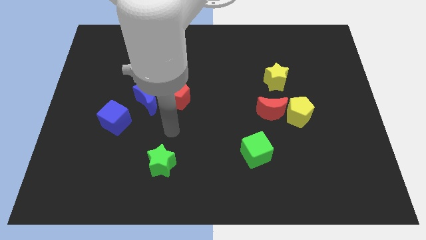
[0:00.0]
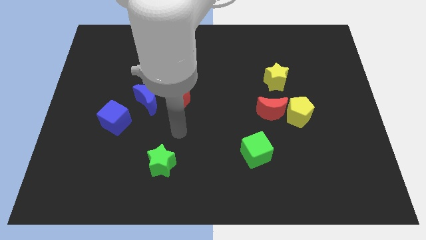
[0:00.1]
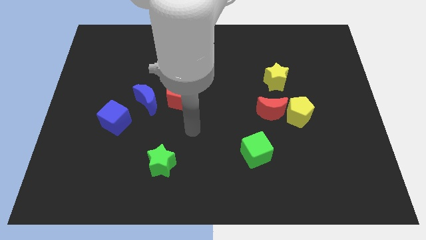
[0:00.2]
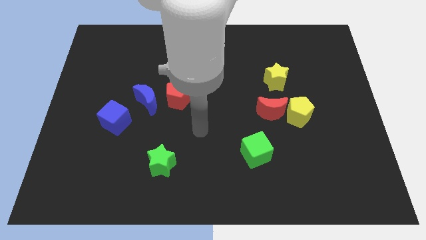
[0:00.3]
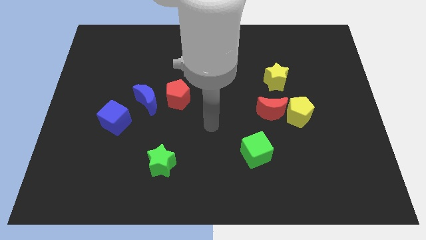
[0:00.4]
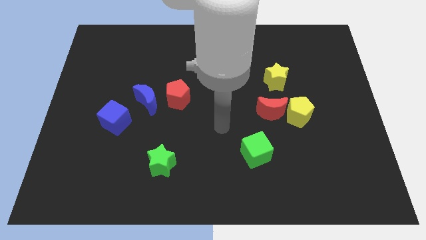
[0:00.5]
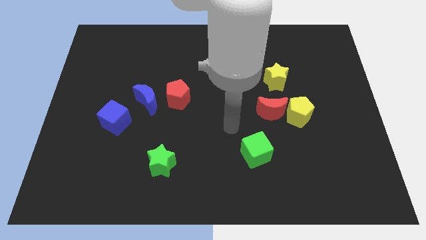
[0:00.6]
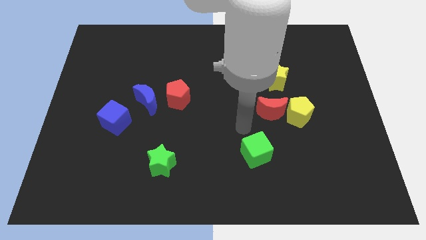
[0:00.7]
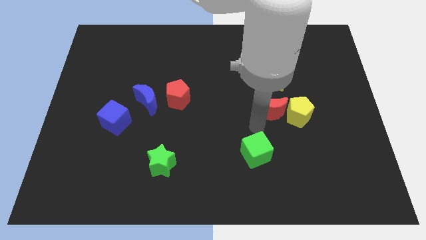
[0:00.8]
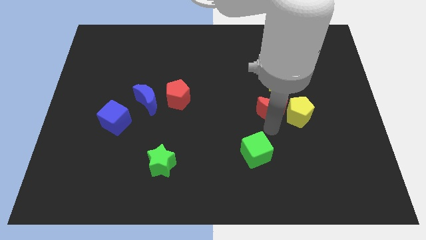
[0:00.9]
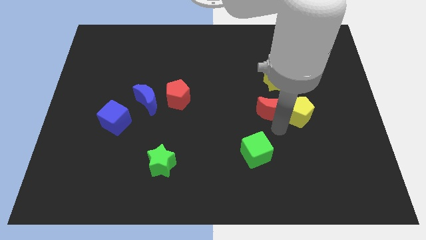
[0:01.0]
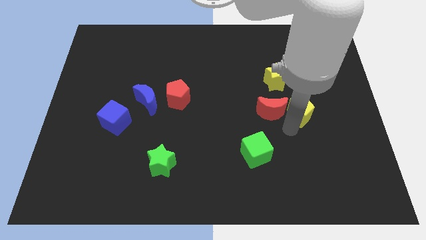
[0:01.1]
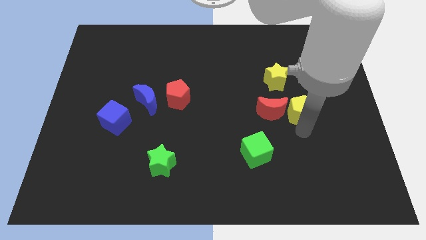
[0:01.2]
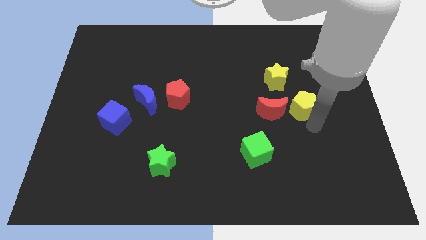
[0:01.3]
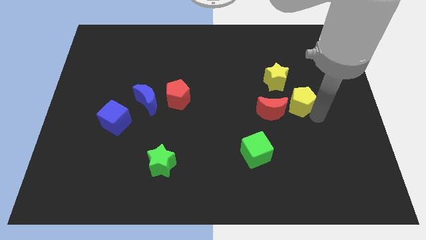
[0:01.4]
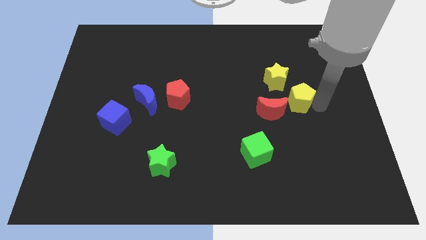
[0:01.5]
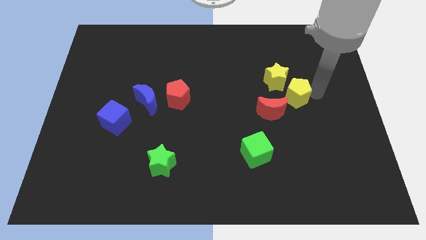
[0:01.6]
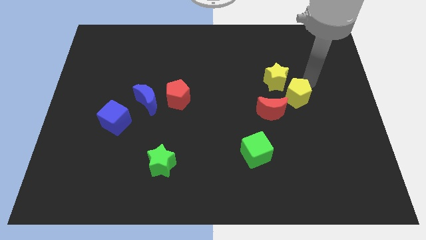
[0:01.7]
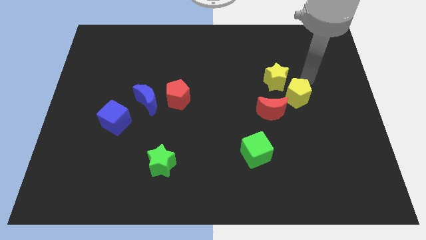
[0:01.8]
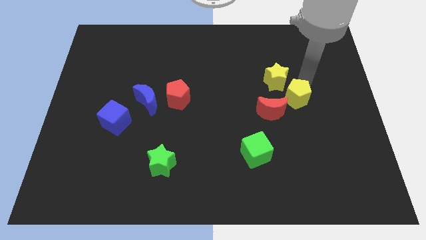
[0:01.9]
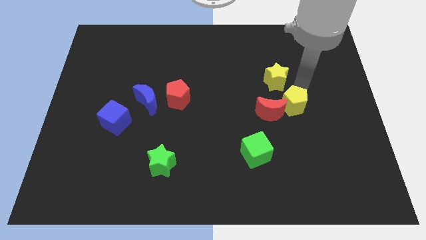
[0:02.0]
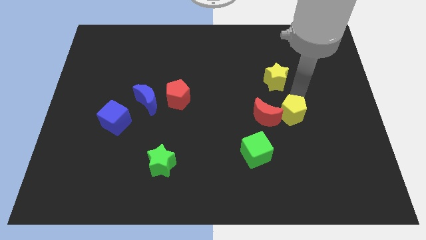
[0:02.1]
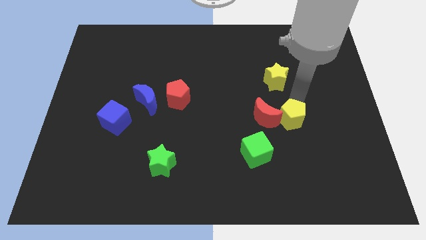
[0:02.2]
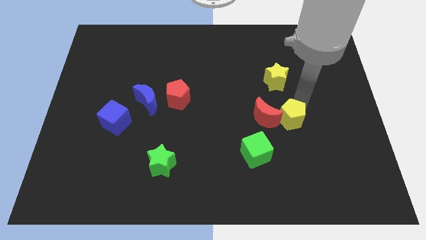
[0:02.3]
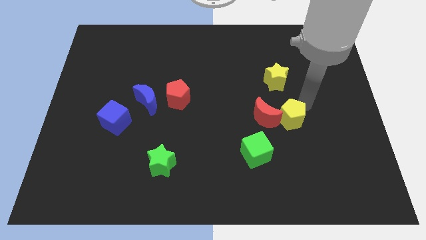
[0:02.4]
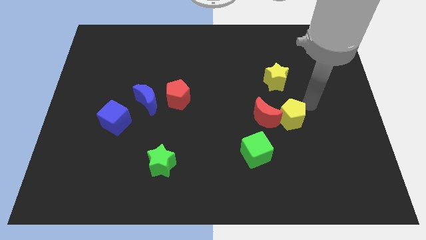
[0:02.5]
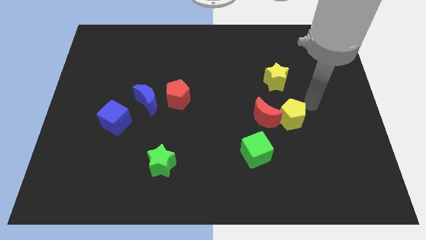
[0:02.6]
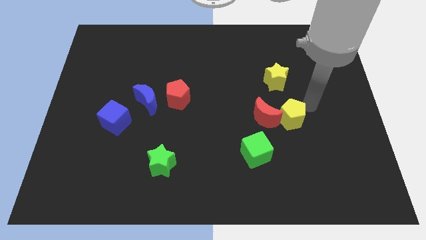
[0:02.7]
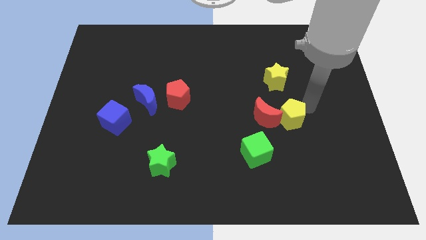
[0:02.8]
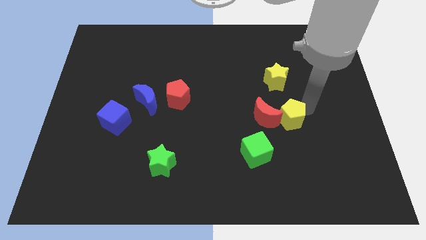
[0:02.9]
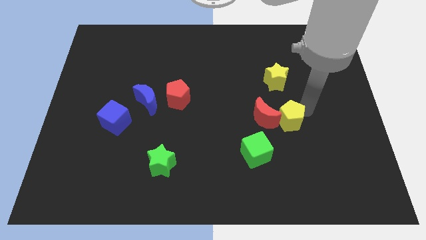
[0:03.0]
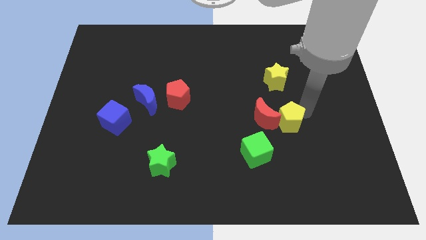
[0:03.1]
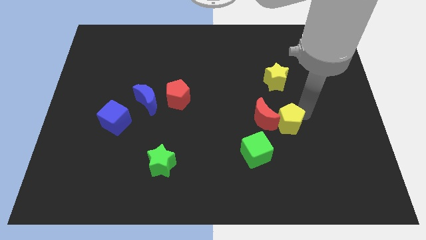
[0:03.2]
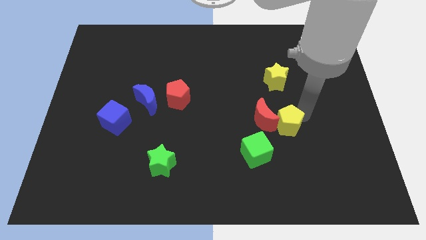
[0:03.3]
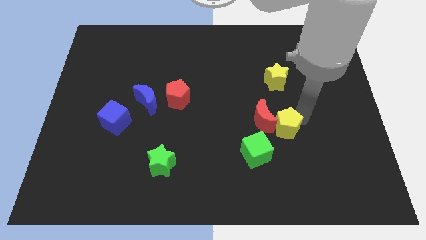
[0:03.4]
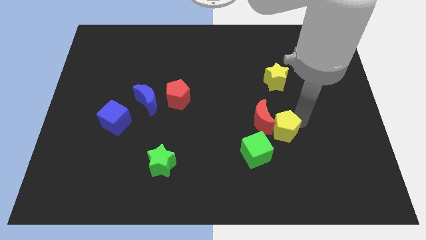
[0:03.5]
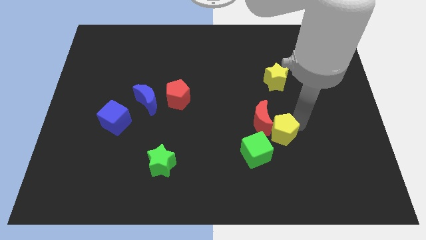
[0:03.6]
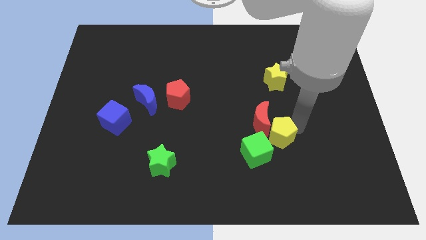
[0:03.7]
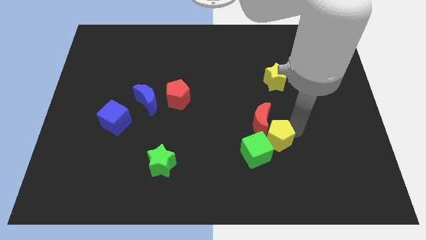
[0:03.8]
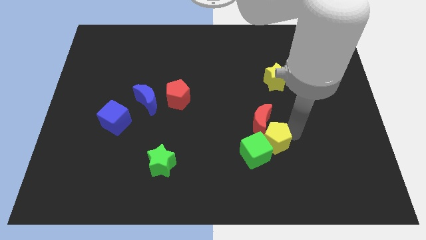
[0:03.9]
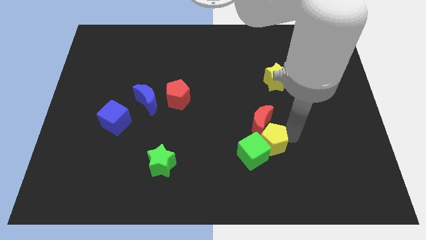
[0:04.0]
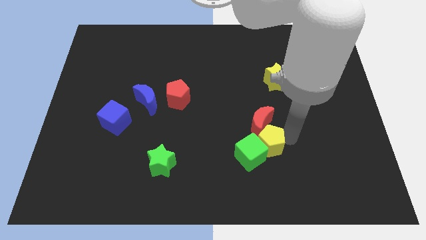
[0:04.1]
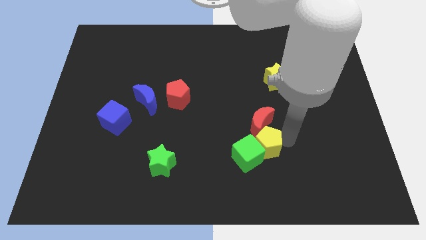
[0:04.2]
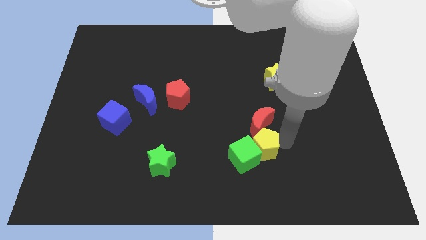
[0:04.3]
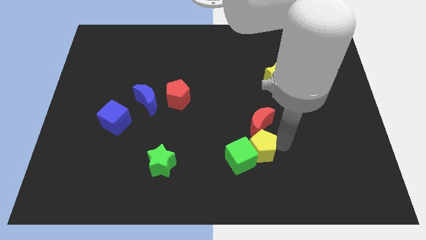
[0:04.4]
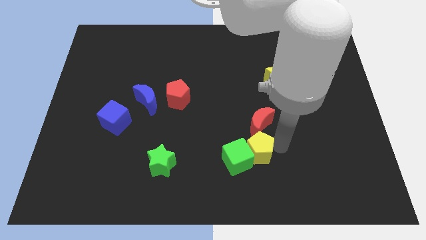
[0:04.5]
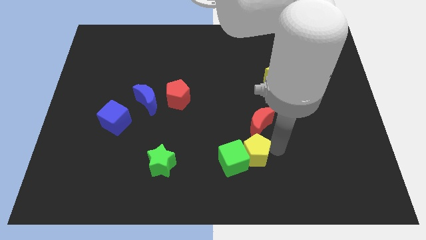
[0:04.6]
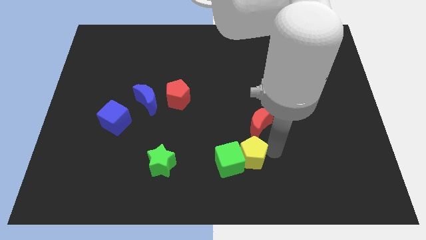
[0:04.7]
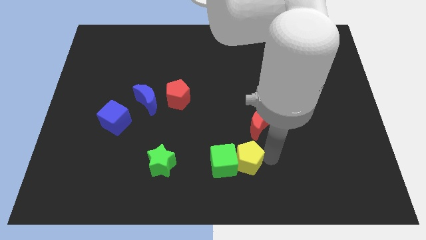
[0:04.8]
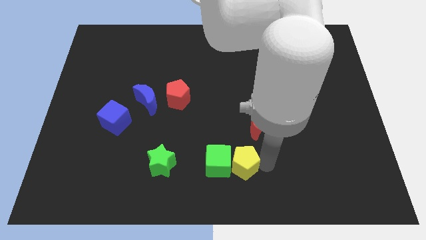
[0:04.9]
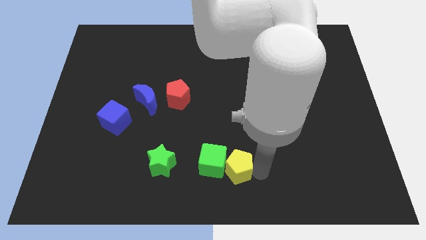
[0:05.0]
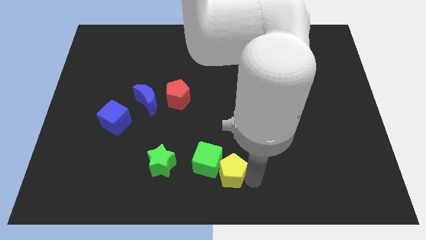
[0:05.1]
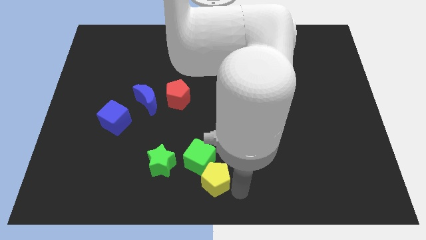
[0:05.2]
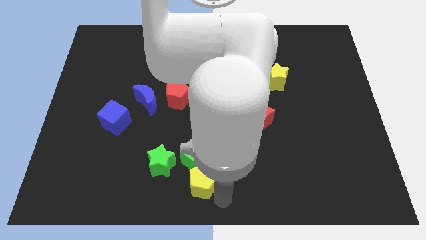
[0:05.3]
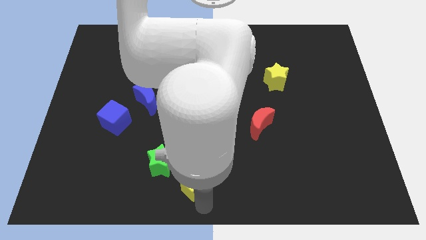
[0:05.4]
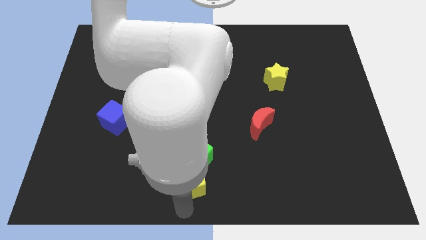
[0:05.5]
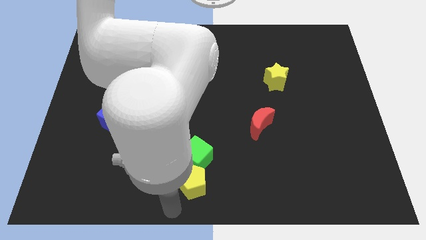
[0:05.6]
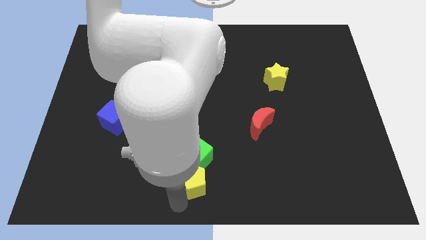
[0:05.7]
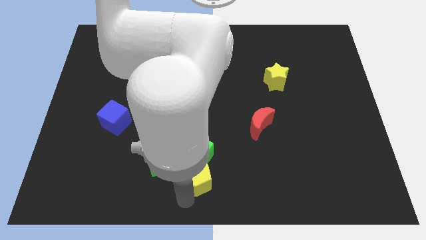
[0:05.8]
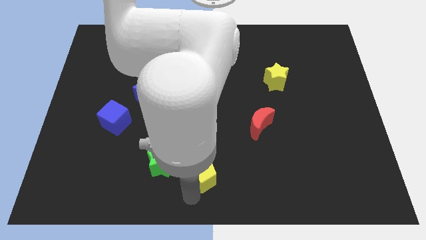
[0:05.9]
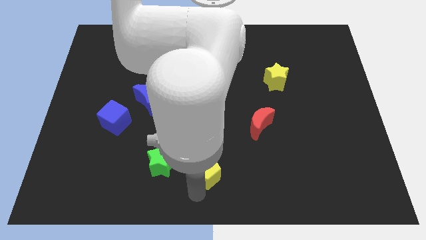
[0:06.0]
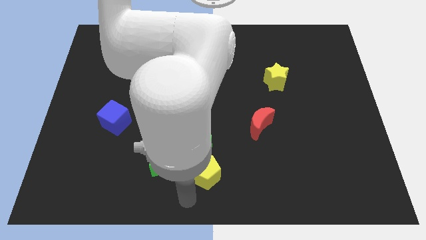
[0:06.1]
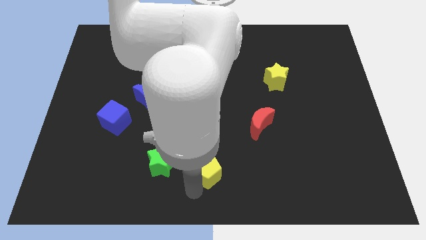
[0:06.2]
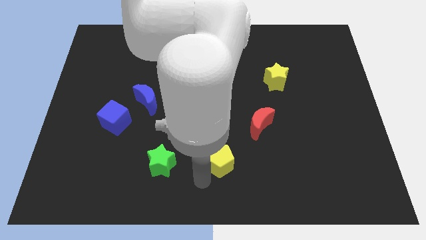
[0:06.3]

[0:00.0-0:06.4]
slightly slide the yellow pentagon to the left

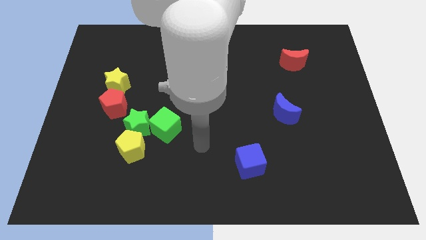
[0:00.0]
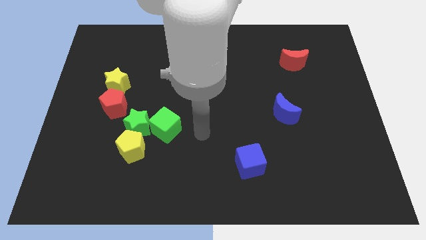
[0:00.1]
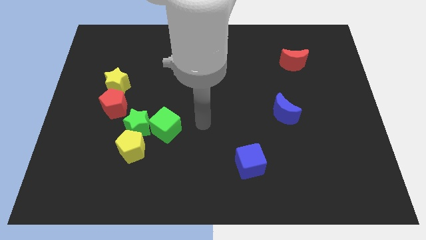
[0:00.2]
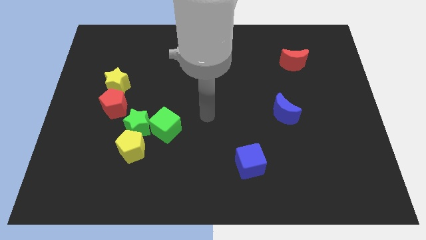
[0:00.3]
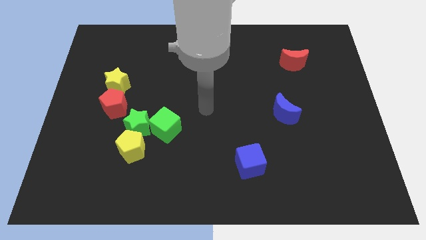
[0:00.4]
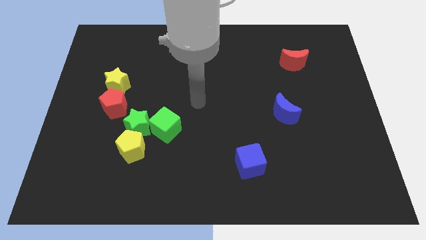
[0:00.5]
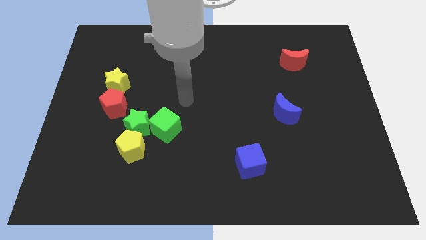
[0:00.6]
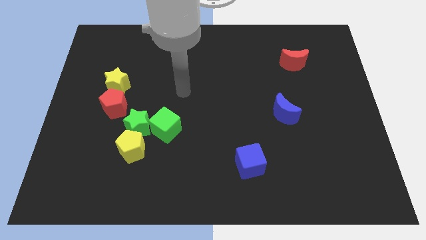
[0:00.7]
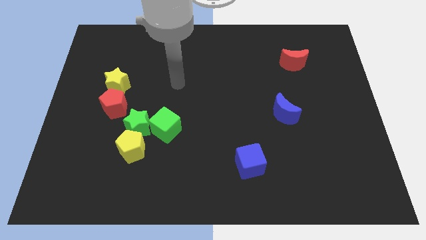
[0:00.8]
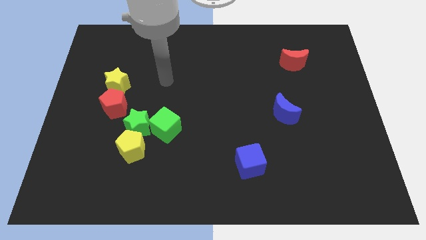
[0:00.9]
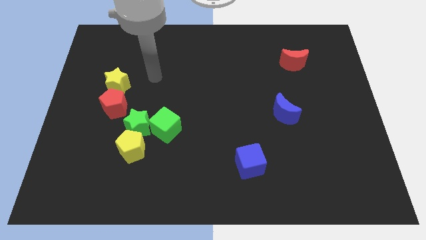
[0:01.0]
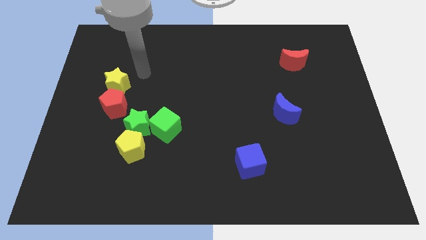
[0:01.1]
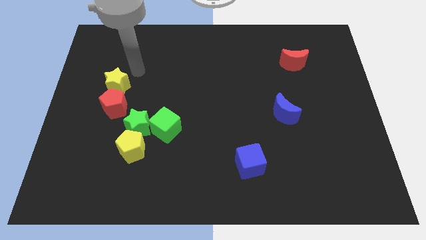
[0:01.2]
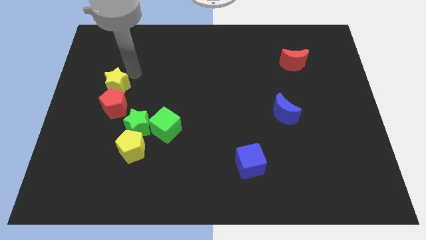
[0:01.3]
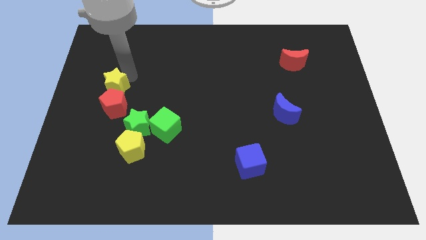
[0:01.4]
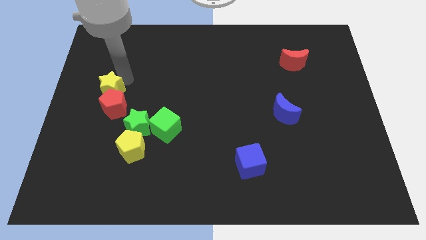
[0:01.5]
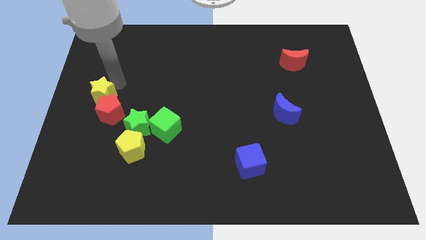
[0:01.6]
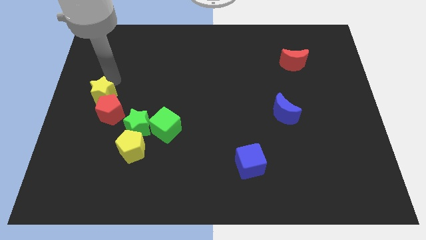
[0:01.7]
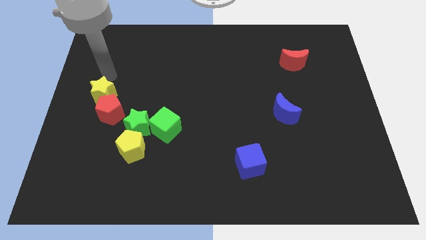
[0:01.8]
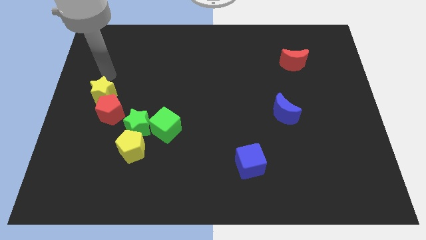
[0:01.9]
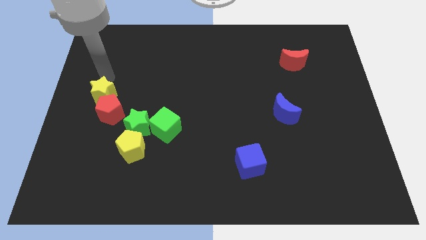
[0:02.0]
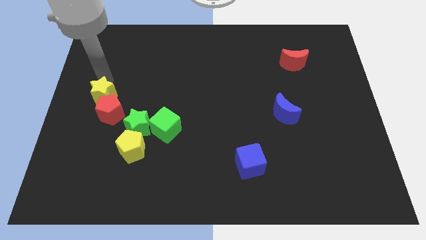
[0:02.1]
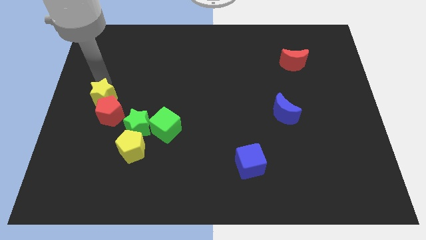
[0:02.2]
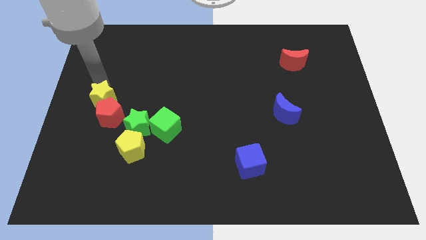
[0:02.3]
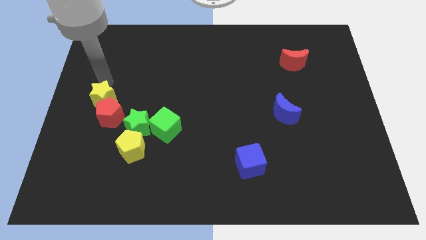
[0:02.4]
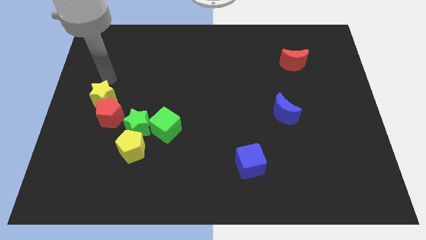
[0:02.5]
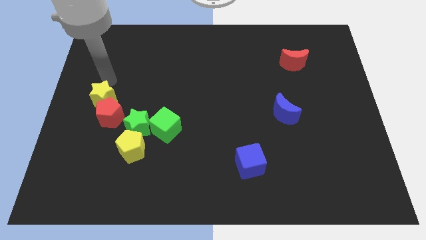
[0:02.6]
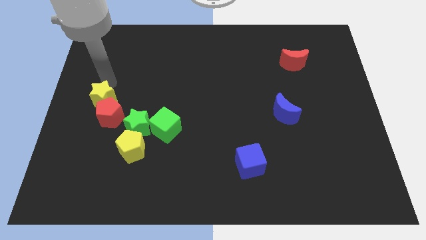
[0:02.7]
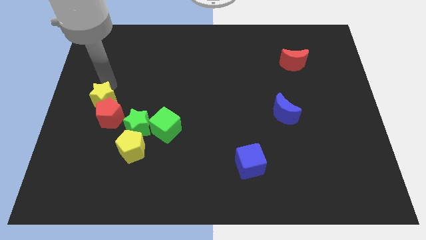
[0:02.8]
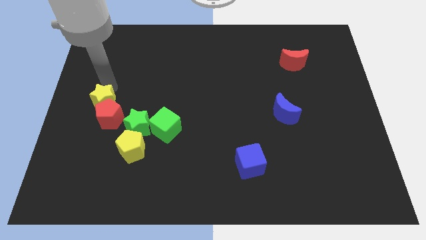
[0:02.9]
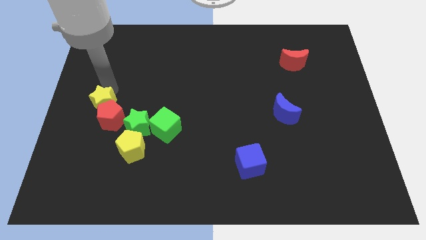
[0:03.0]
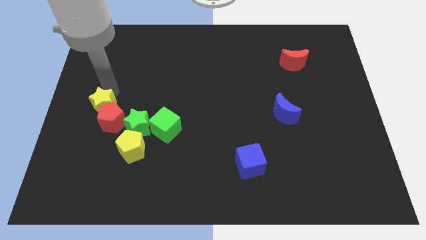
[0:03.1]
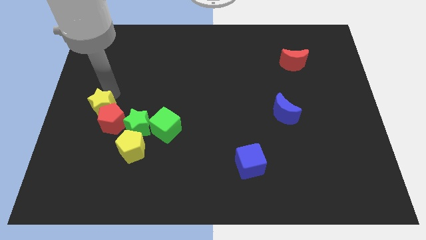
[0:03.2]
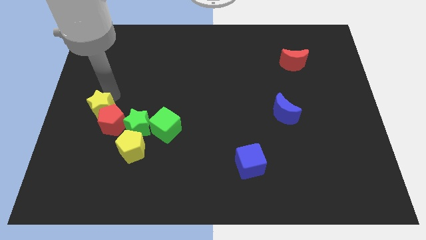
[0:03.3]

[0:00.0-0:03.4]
move the yellow star down a little
